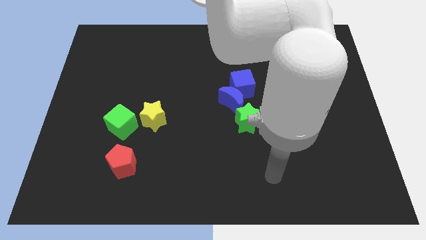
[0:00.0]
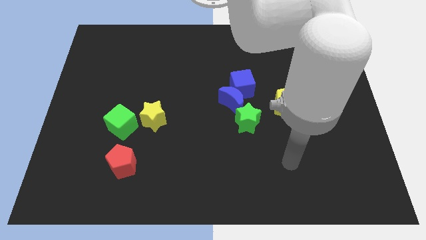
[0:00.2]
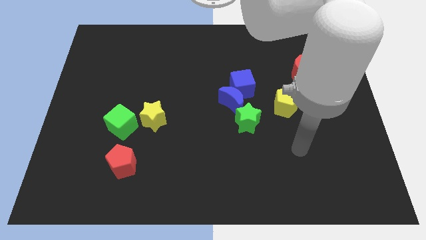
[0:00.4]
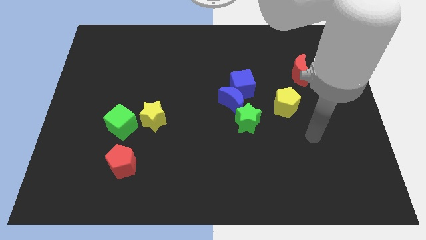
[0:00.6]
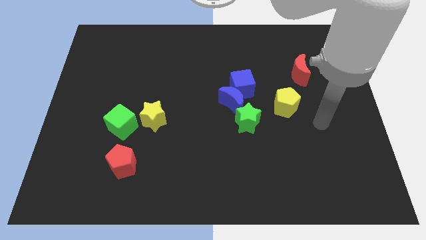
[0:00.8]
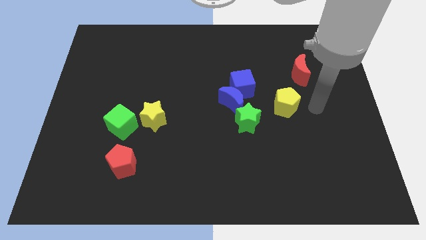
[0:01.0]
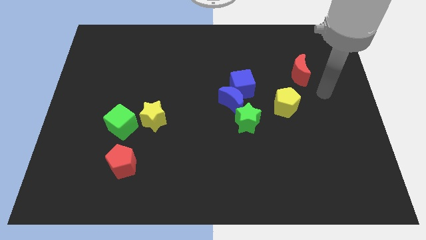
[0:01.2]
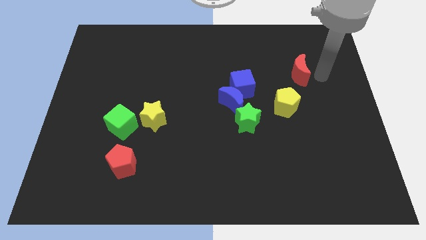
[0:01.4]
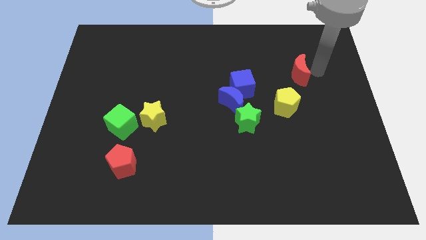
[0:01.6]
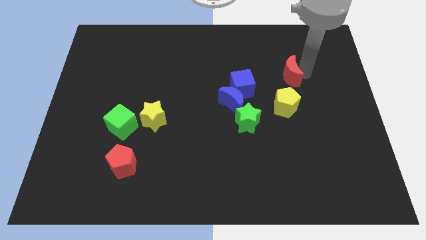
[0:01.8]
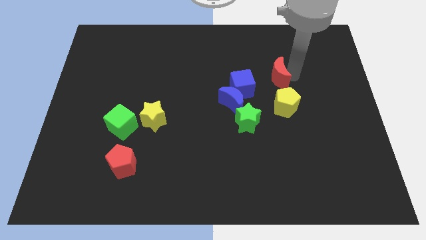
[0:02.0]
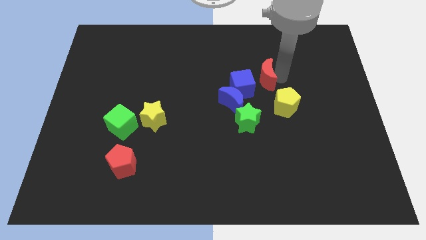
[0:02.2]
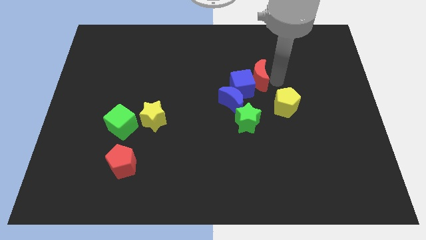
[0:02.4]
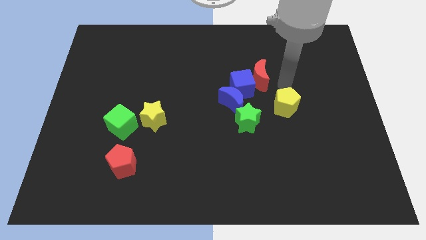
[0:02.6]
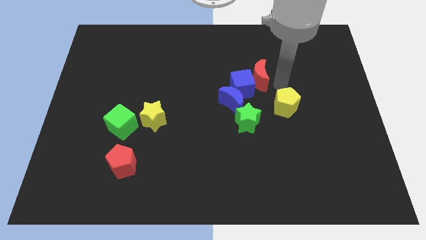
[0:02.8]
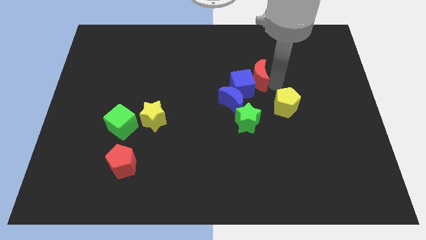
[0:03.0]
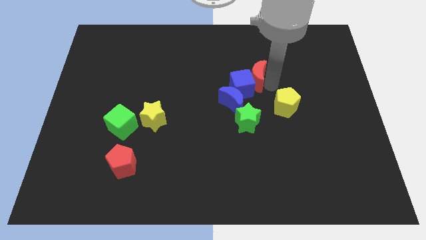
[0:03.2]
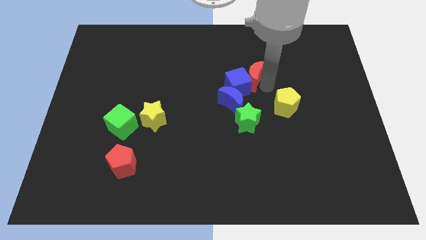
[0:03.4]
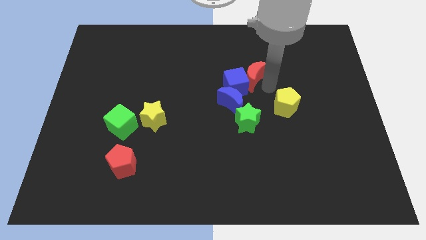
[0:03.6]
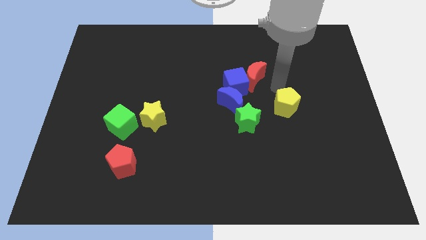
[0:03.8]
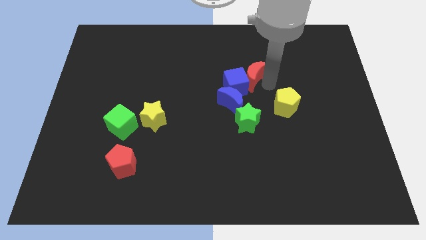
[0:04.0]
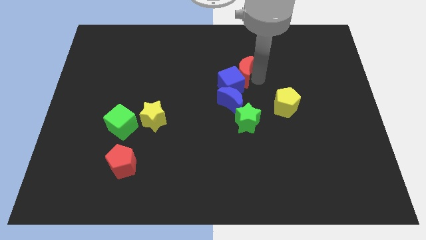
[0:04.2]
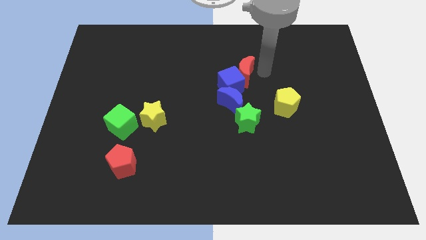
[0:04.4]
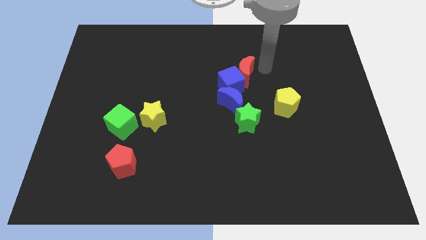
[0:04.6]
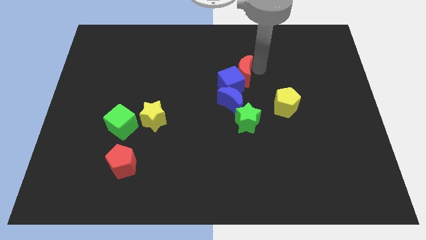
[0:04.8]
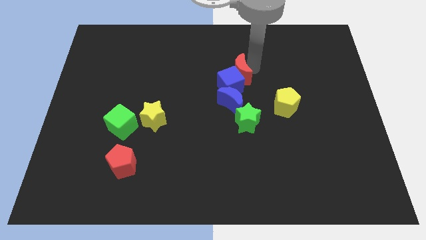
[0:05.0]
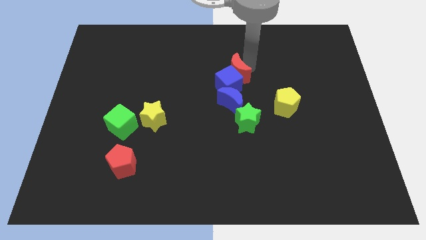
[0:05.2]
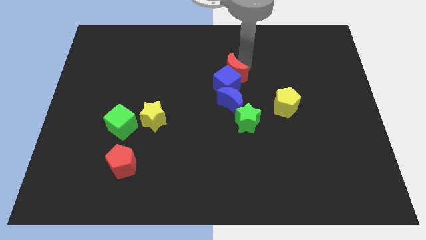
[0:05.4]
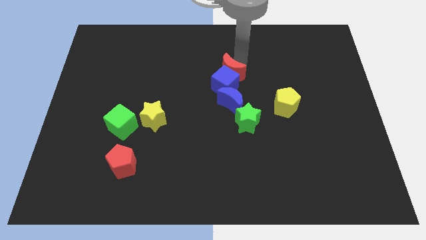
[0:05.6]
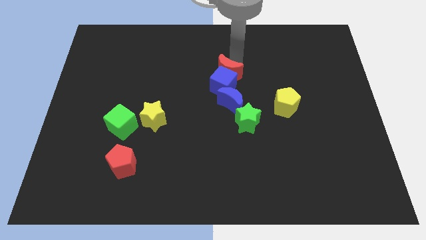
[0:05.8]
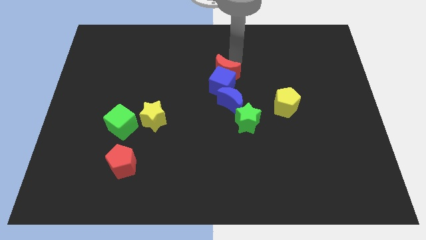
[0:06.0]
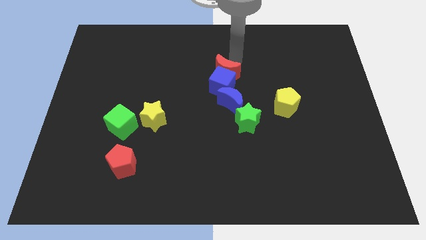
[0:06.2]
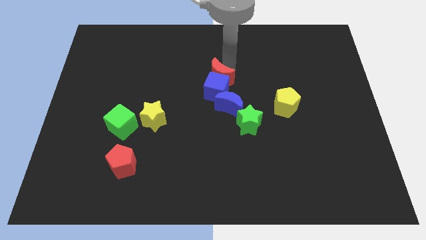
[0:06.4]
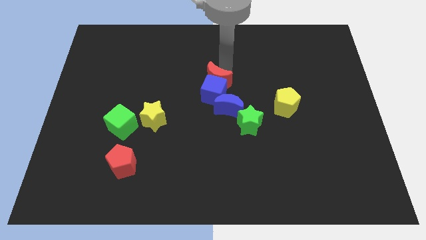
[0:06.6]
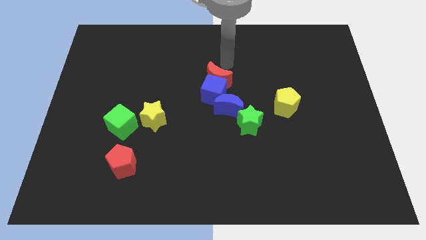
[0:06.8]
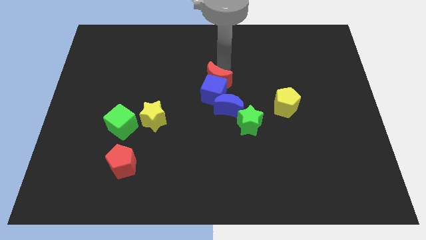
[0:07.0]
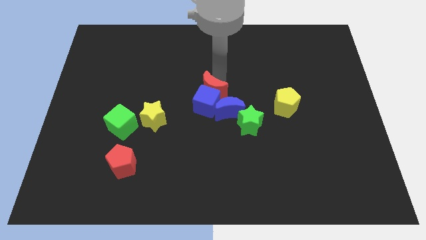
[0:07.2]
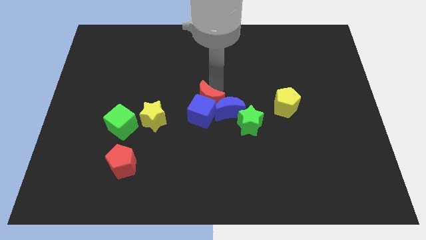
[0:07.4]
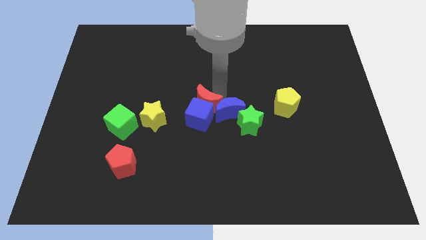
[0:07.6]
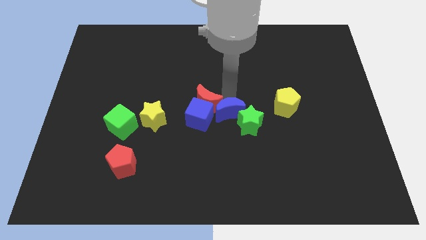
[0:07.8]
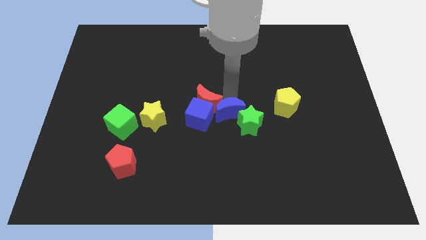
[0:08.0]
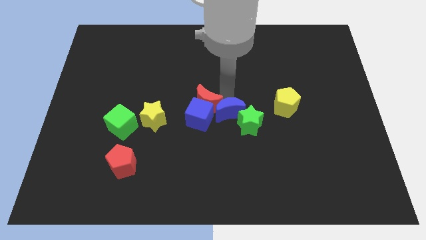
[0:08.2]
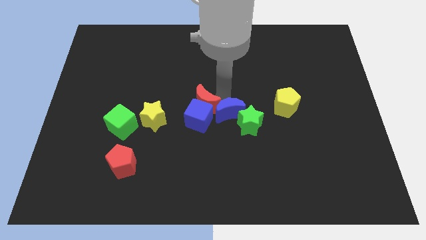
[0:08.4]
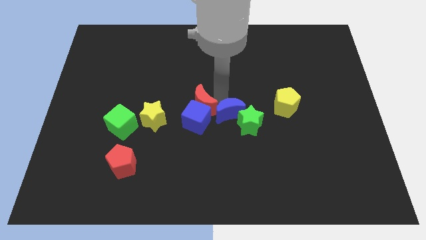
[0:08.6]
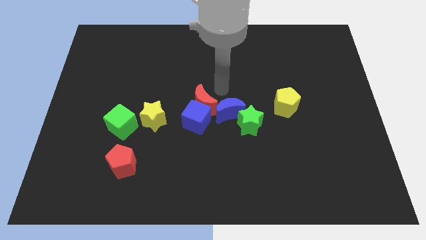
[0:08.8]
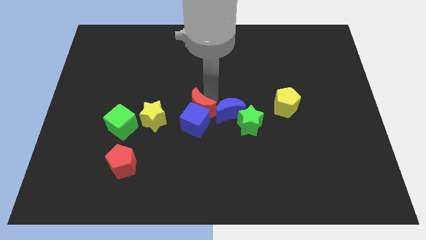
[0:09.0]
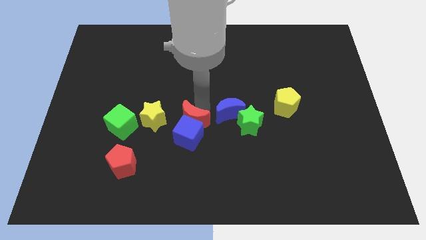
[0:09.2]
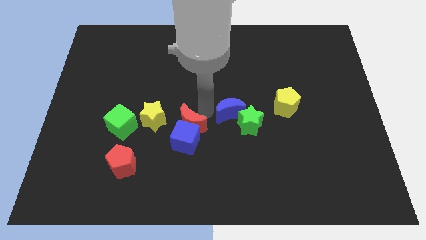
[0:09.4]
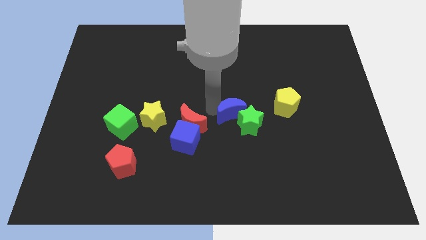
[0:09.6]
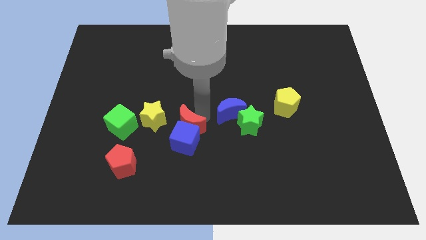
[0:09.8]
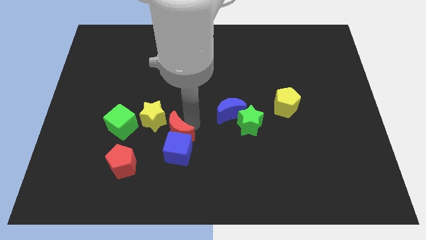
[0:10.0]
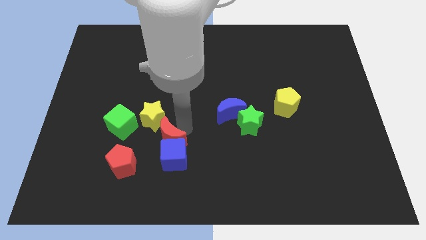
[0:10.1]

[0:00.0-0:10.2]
slide the red moon to the bottom of the yellow star

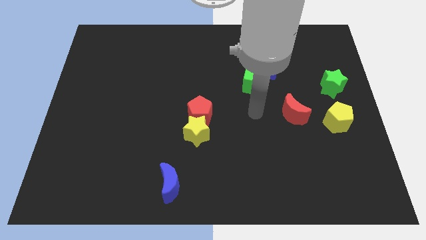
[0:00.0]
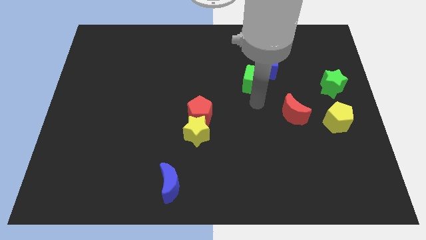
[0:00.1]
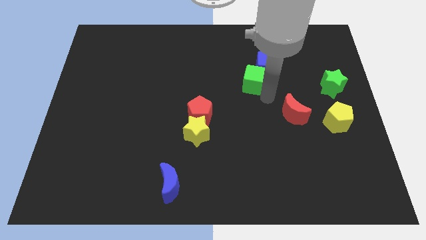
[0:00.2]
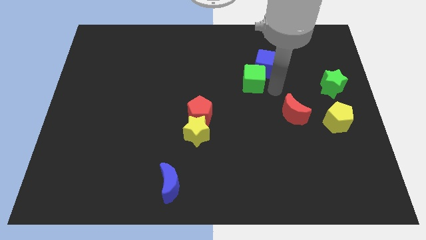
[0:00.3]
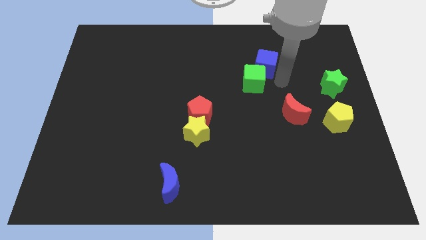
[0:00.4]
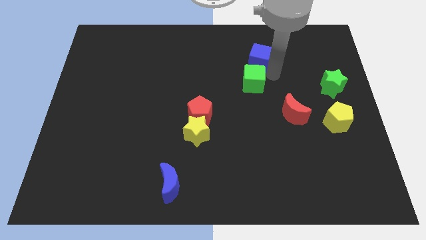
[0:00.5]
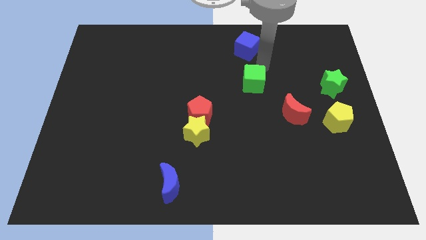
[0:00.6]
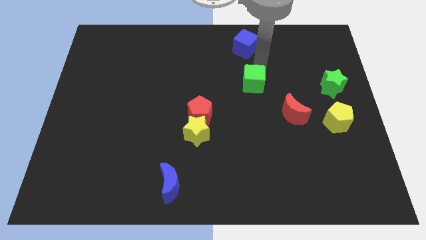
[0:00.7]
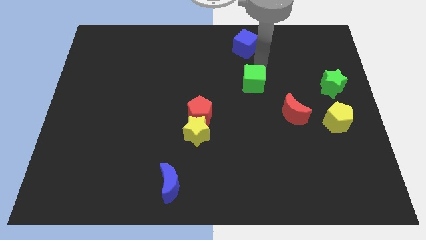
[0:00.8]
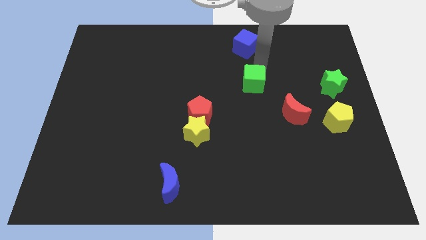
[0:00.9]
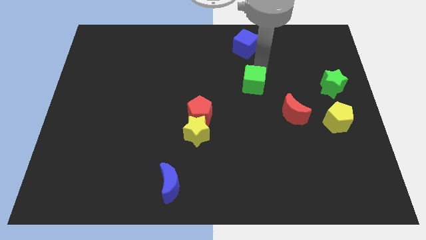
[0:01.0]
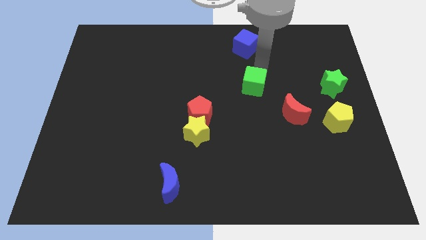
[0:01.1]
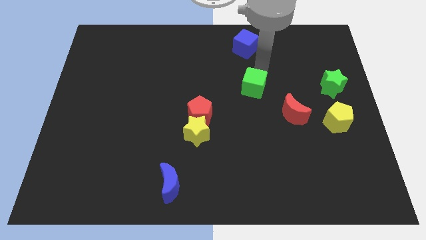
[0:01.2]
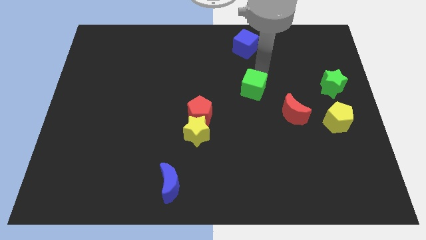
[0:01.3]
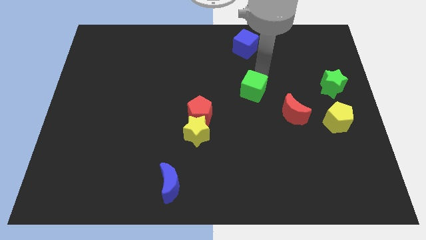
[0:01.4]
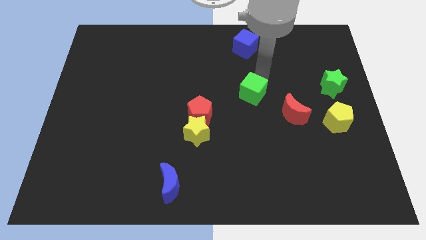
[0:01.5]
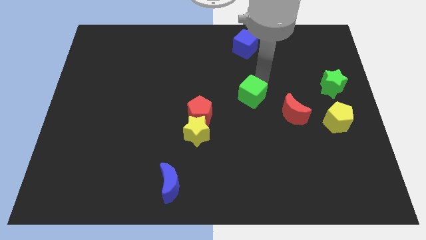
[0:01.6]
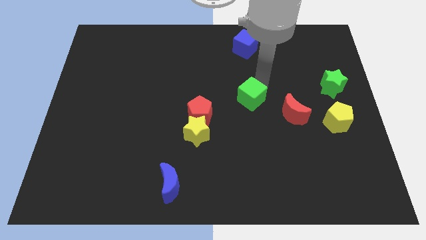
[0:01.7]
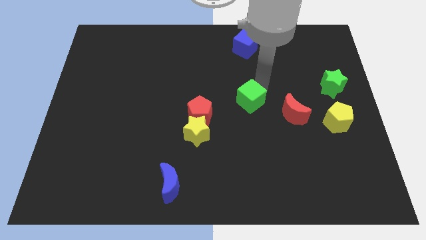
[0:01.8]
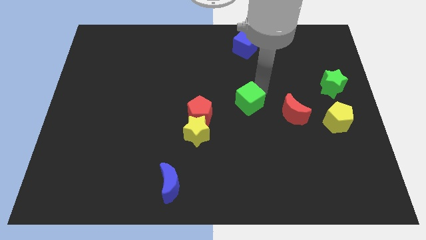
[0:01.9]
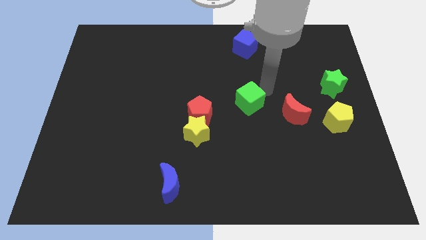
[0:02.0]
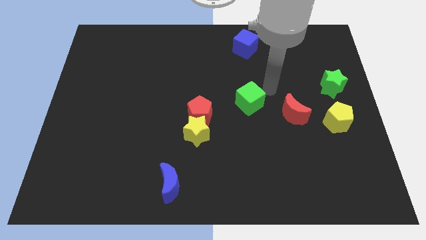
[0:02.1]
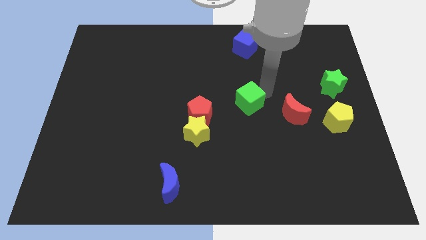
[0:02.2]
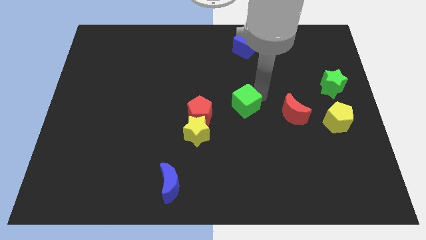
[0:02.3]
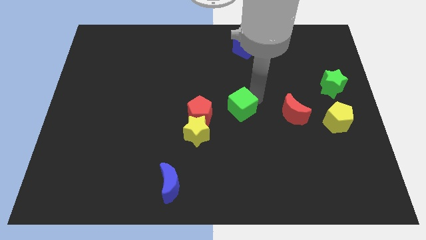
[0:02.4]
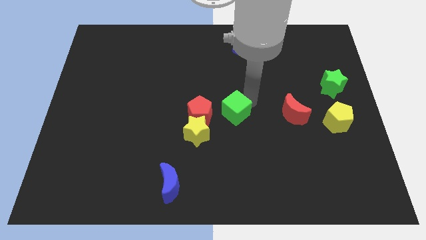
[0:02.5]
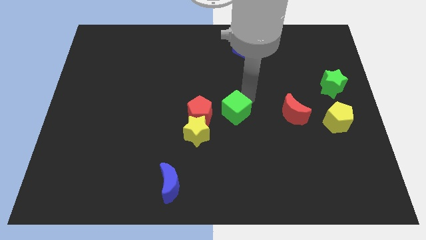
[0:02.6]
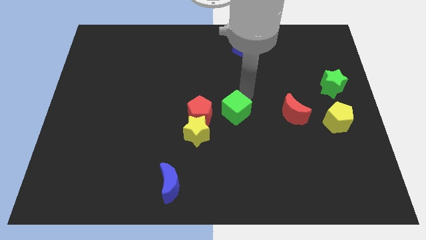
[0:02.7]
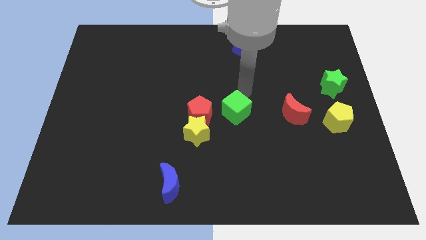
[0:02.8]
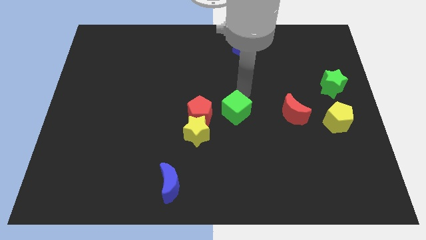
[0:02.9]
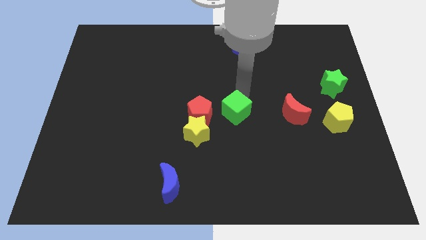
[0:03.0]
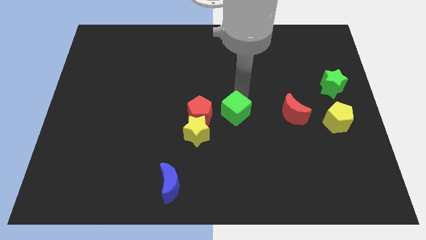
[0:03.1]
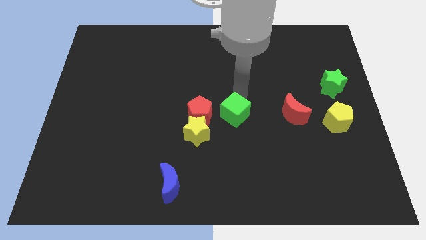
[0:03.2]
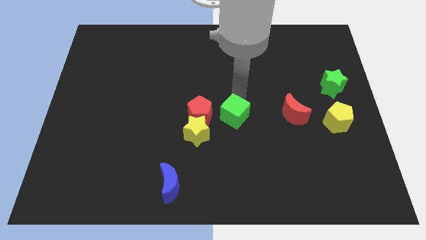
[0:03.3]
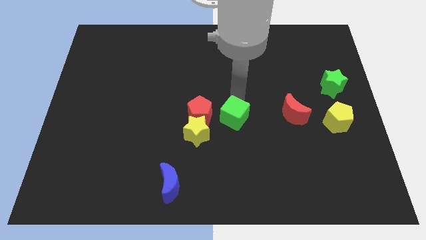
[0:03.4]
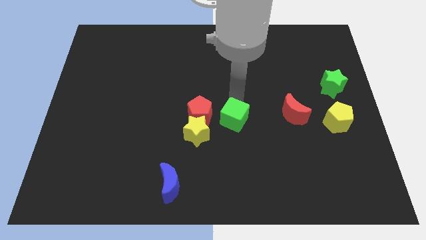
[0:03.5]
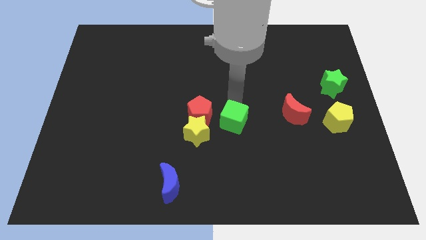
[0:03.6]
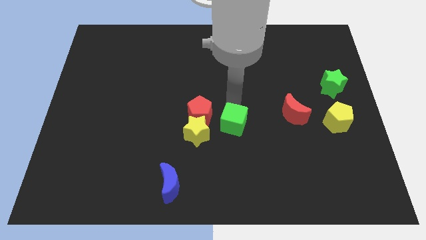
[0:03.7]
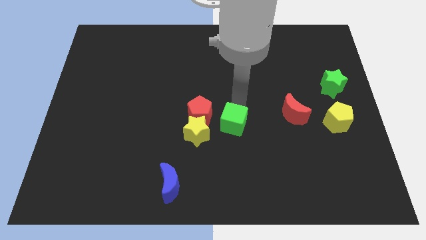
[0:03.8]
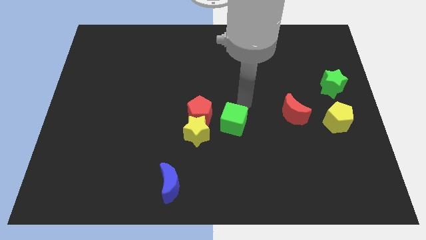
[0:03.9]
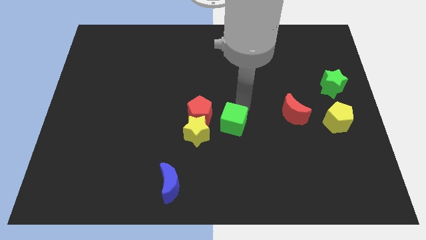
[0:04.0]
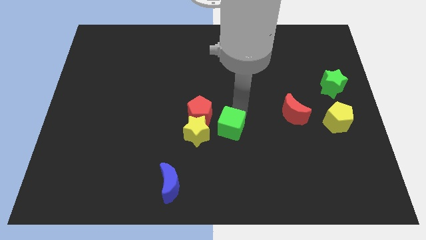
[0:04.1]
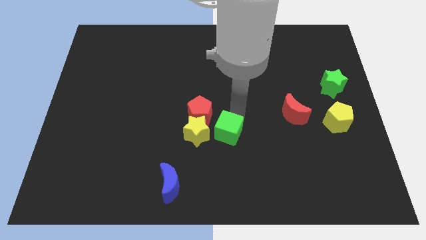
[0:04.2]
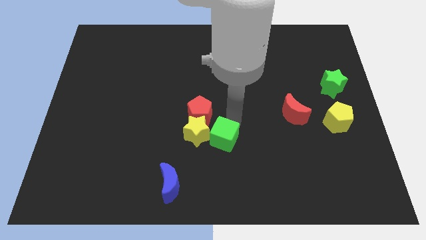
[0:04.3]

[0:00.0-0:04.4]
put the green cube diagonally down and to the right of the yellow star
